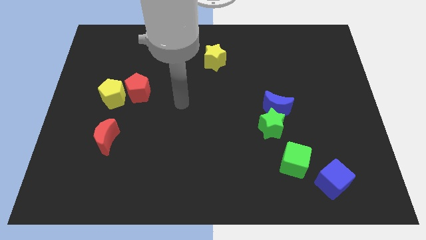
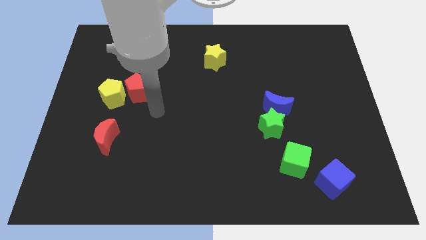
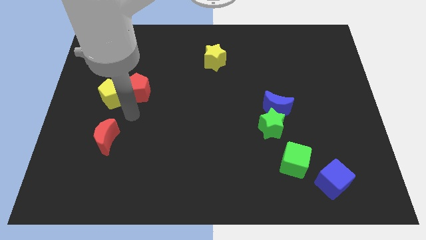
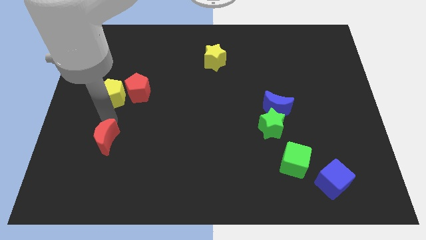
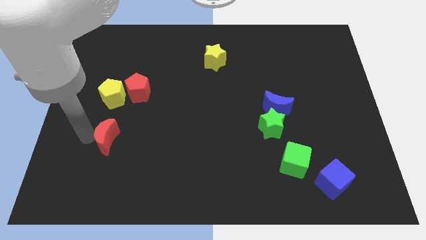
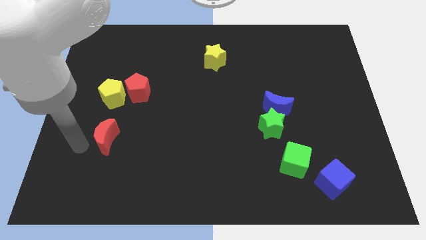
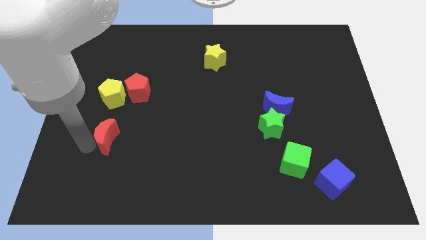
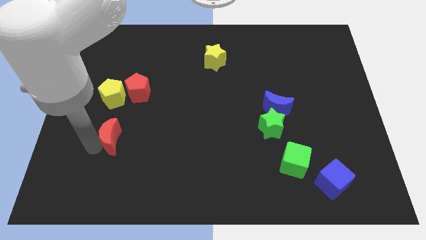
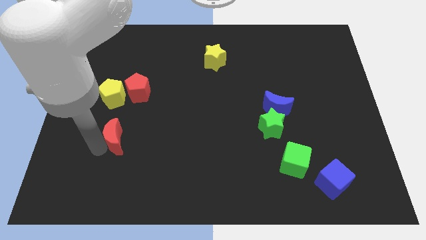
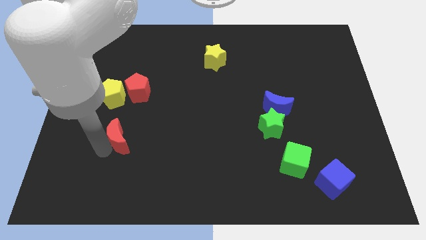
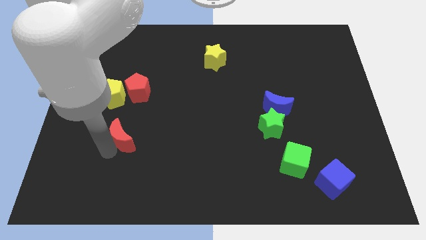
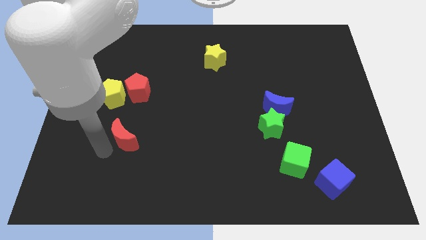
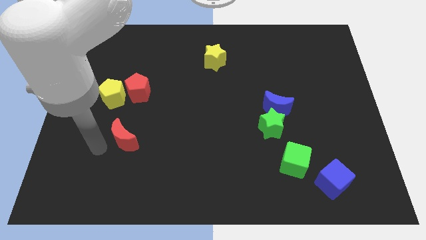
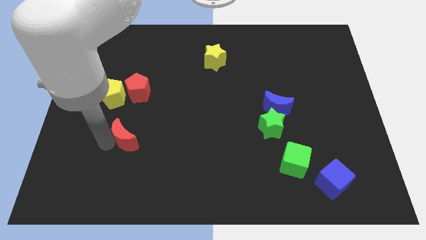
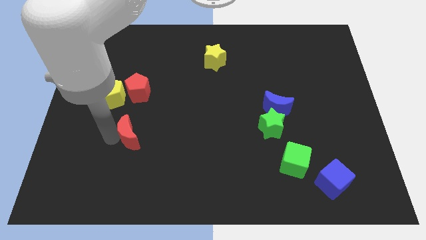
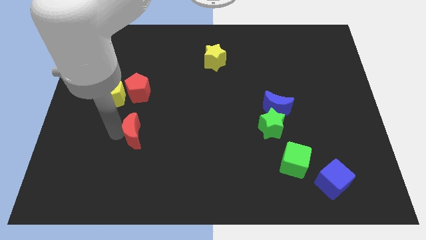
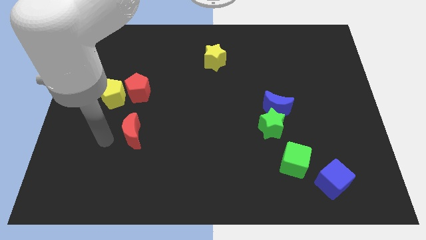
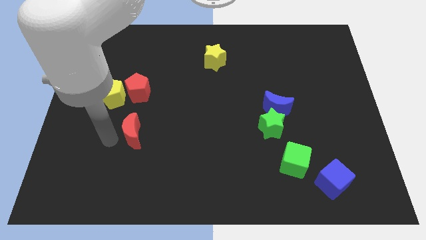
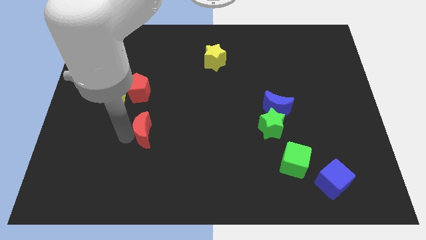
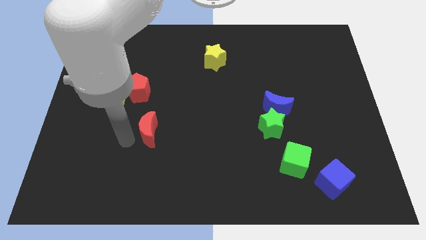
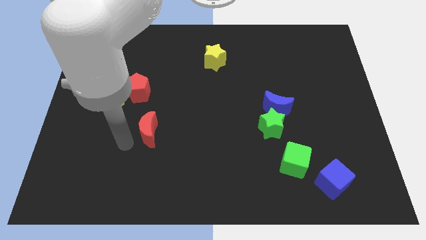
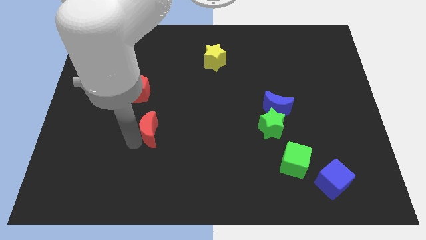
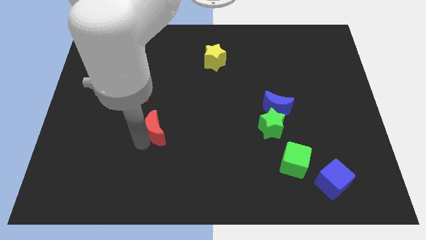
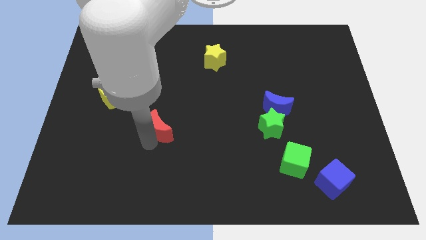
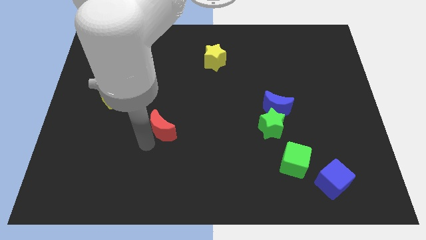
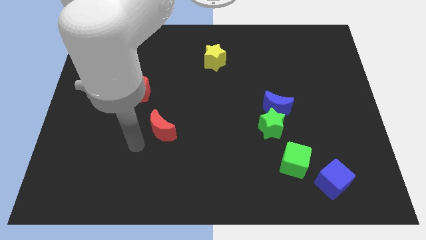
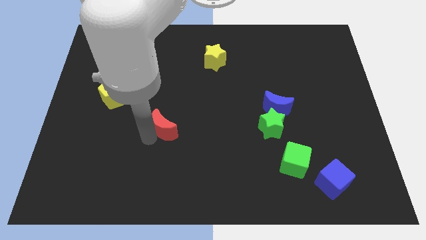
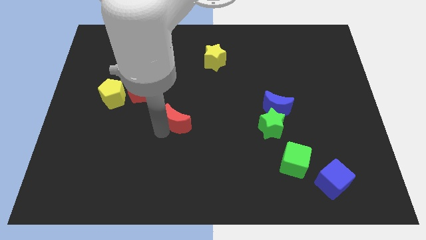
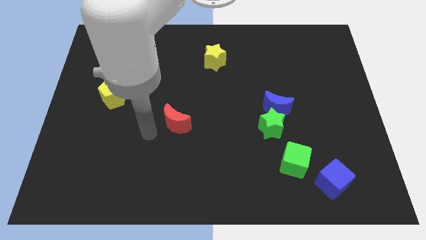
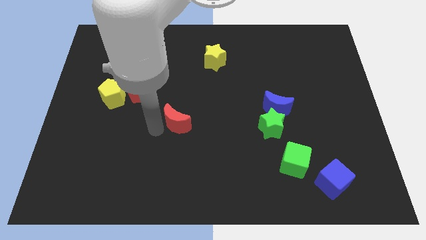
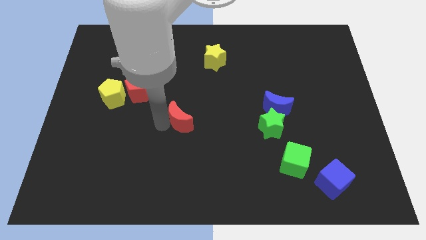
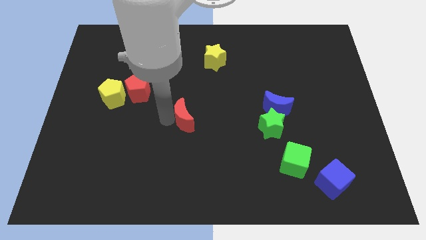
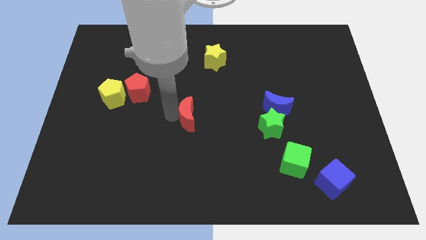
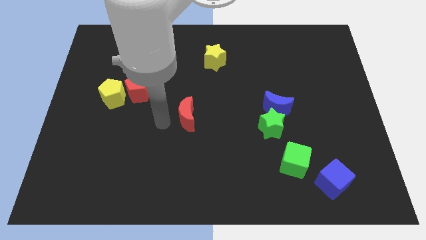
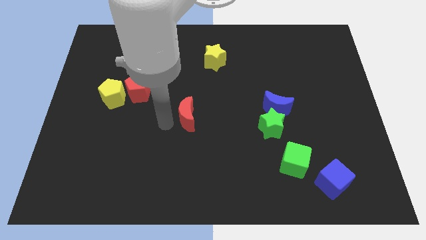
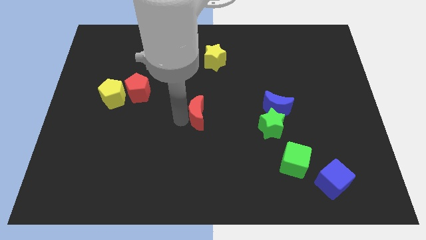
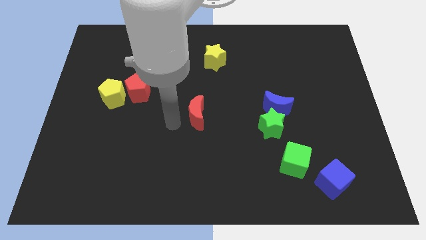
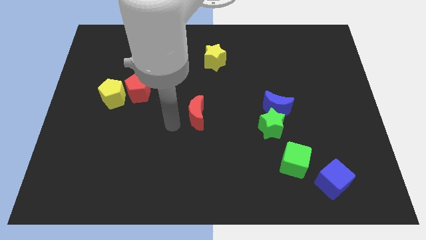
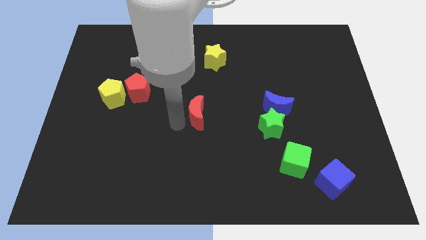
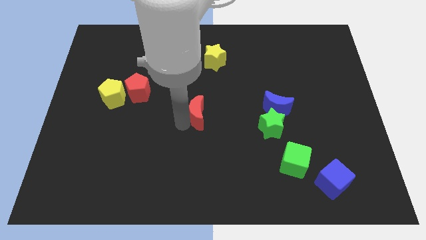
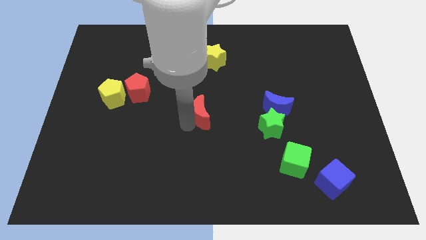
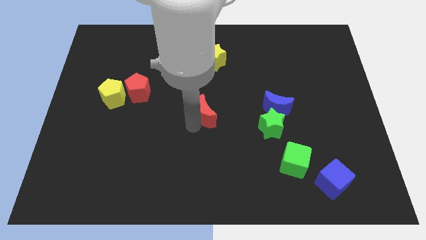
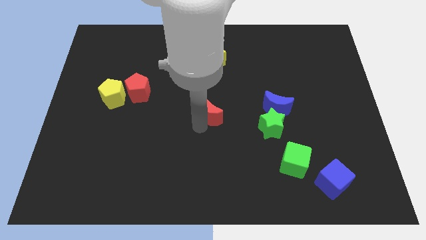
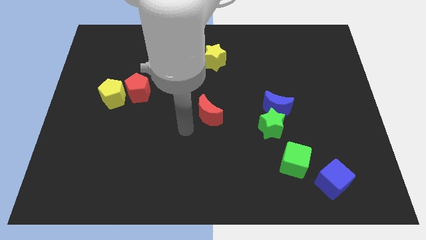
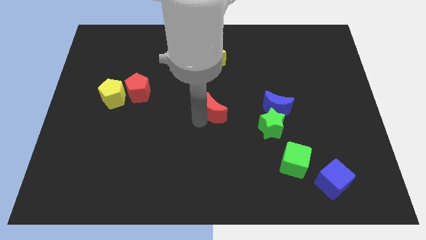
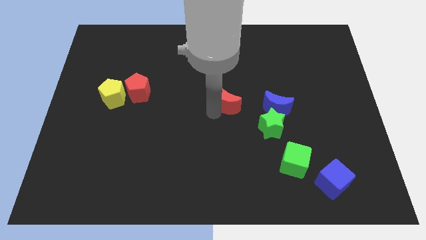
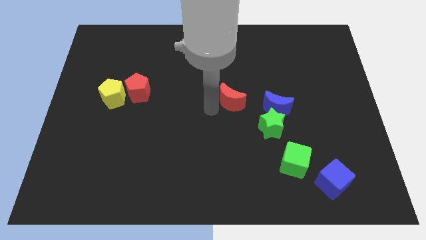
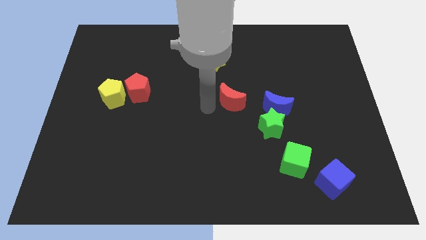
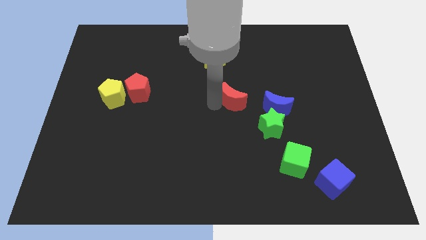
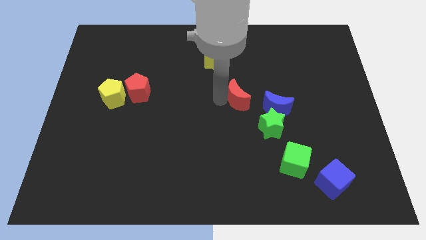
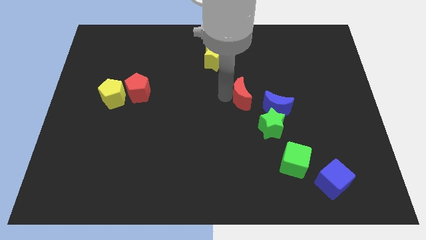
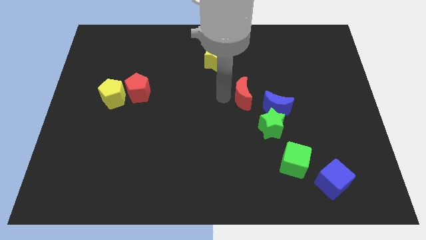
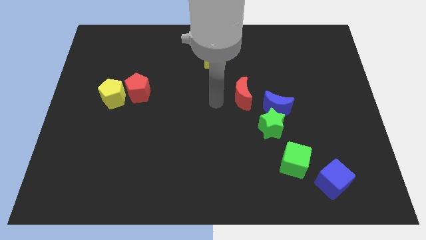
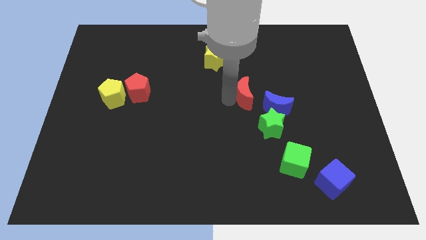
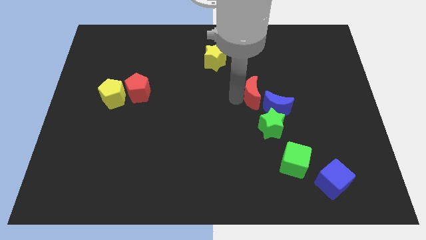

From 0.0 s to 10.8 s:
move the red moon to the top of the green star
